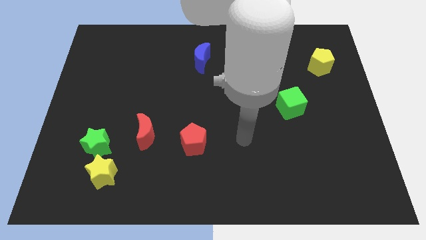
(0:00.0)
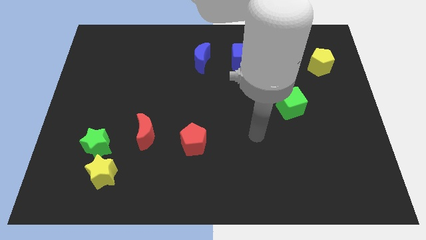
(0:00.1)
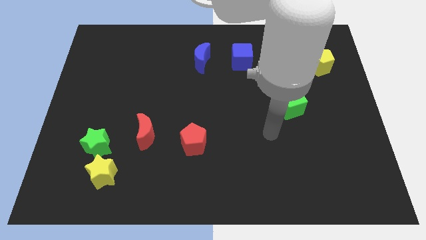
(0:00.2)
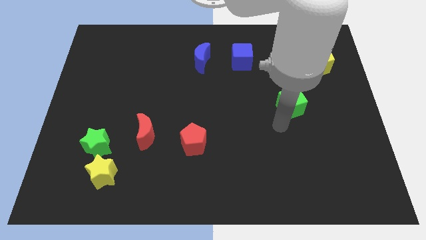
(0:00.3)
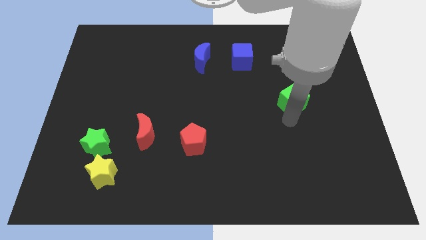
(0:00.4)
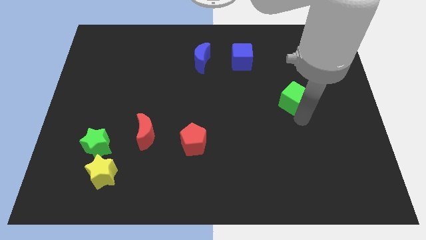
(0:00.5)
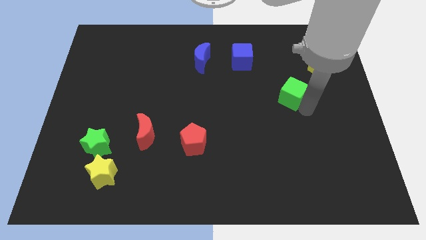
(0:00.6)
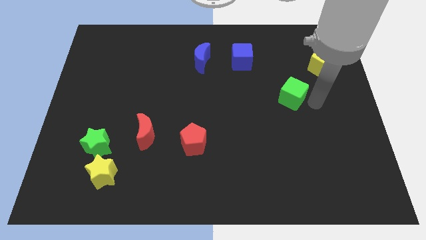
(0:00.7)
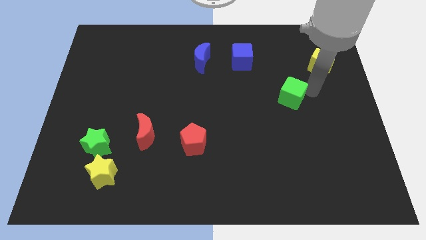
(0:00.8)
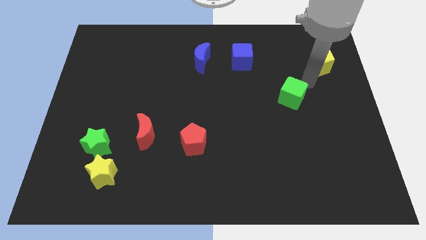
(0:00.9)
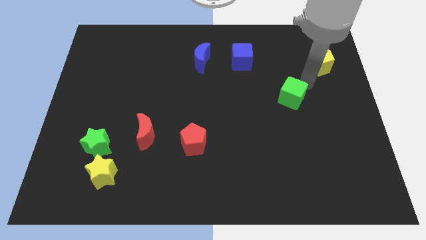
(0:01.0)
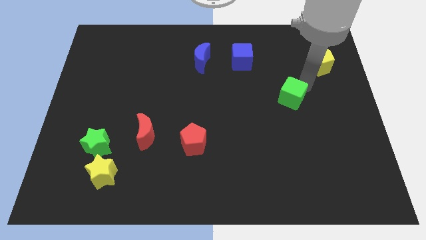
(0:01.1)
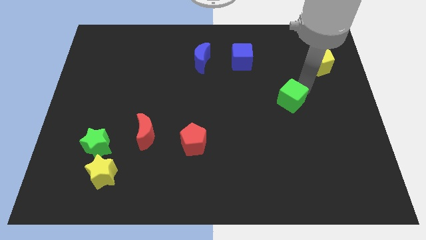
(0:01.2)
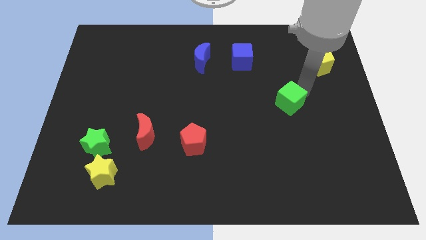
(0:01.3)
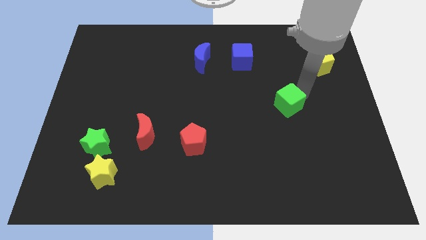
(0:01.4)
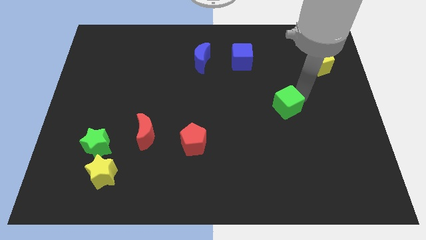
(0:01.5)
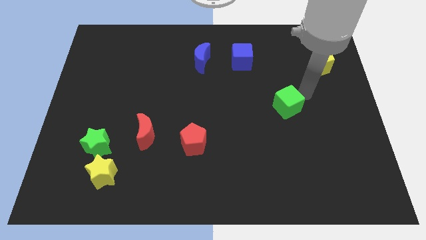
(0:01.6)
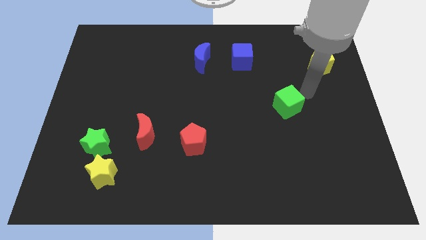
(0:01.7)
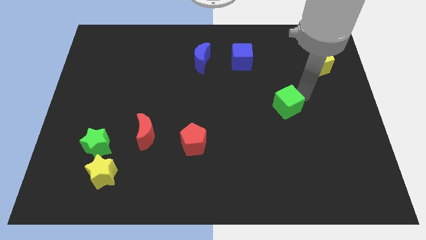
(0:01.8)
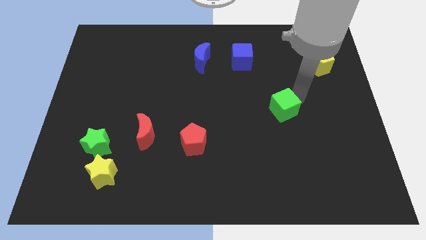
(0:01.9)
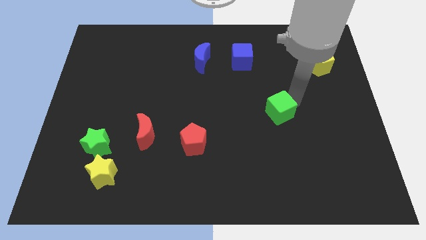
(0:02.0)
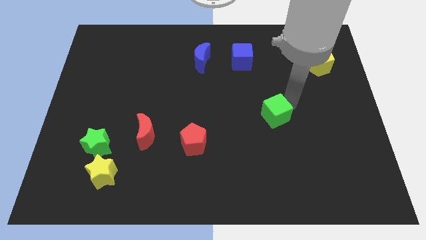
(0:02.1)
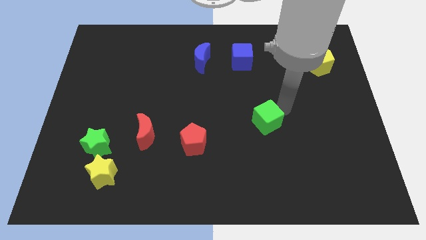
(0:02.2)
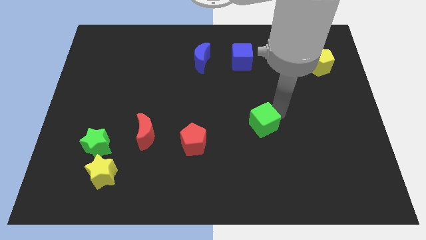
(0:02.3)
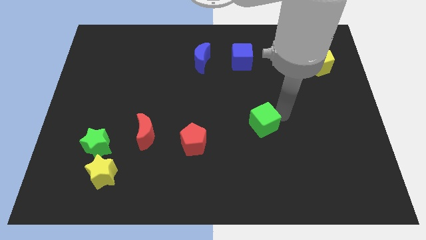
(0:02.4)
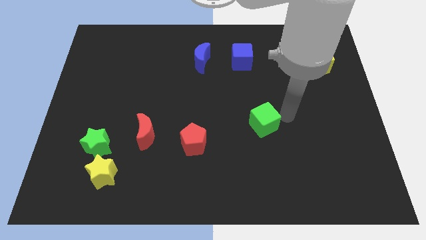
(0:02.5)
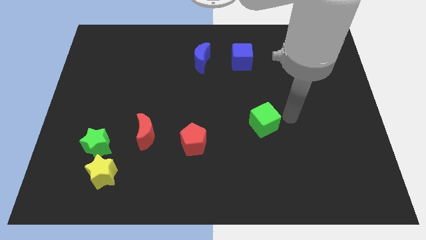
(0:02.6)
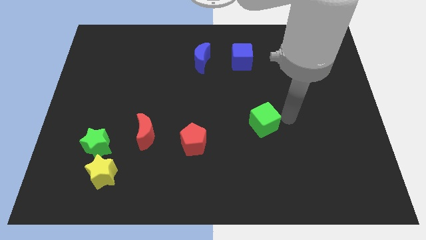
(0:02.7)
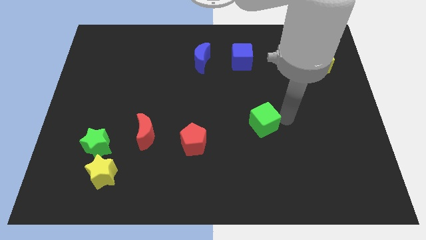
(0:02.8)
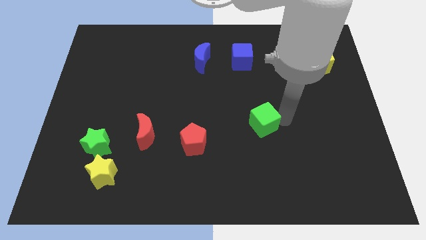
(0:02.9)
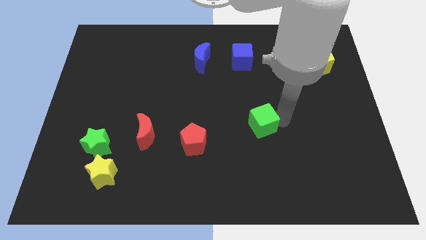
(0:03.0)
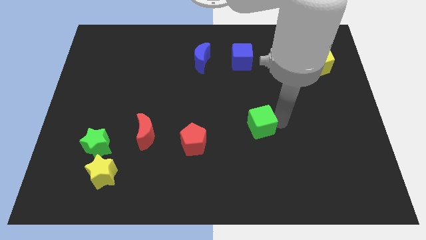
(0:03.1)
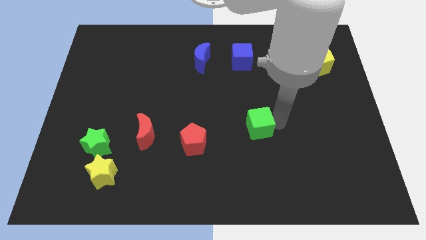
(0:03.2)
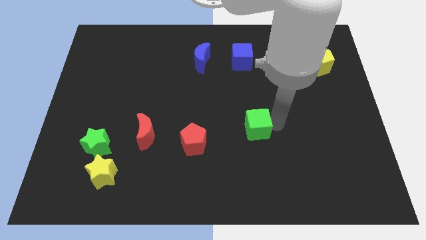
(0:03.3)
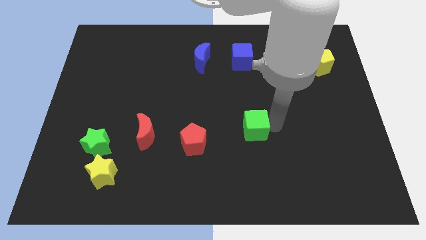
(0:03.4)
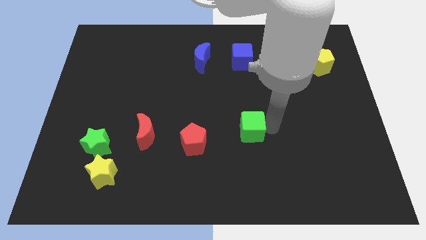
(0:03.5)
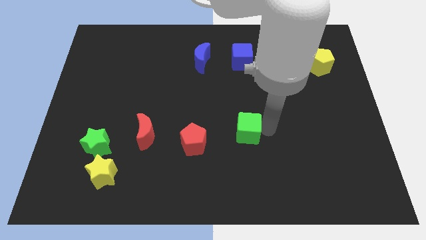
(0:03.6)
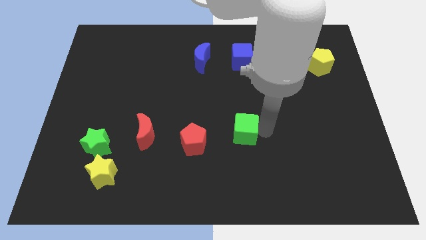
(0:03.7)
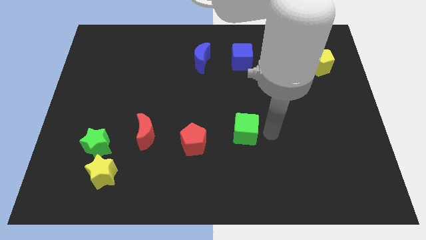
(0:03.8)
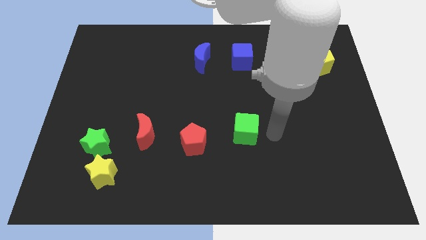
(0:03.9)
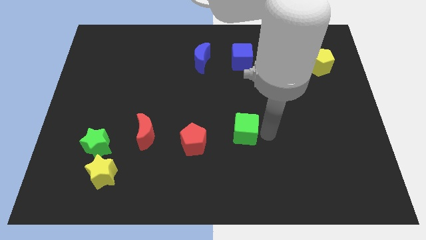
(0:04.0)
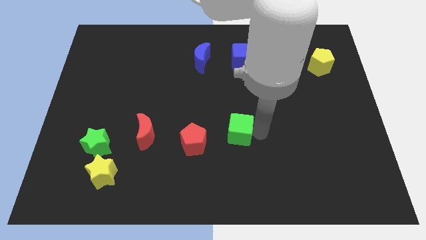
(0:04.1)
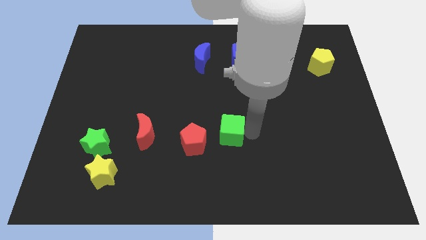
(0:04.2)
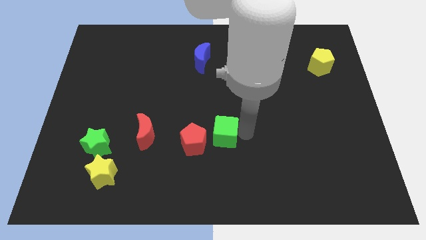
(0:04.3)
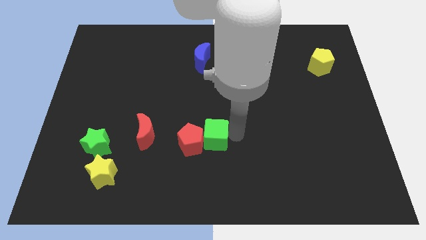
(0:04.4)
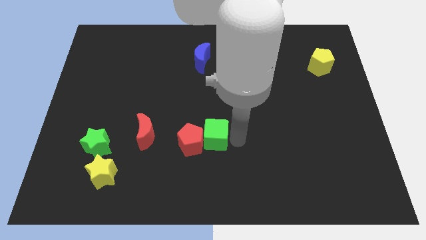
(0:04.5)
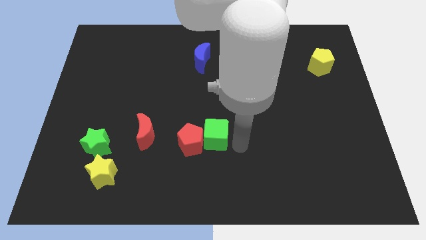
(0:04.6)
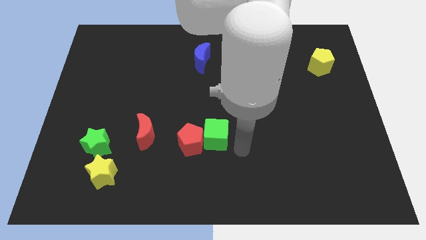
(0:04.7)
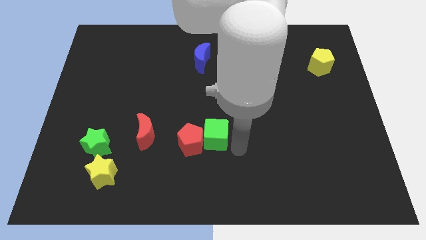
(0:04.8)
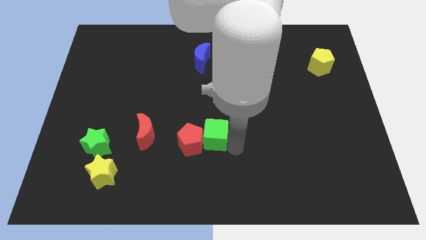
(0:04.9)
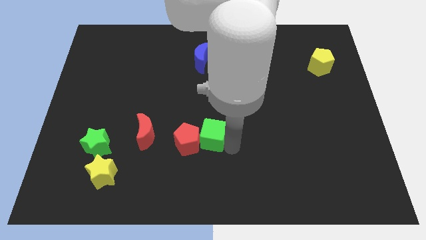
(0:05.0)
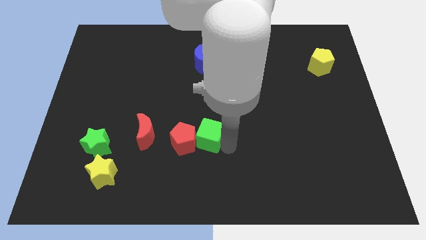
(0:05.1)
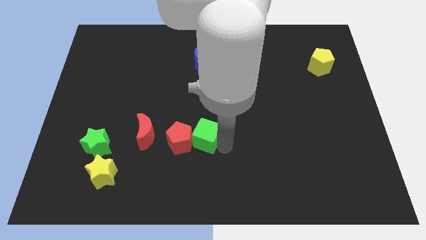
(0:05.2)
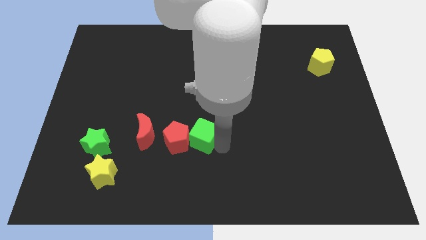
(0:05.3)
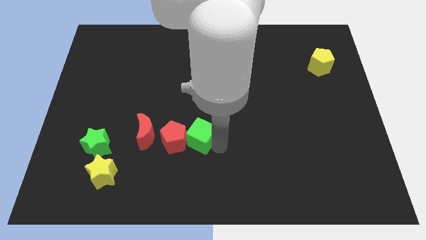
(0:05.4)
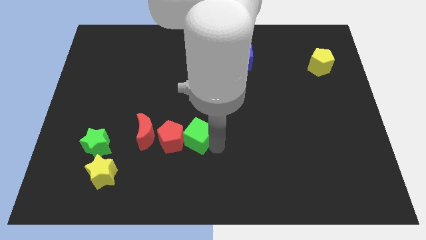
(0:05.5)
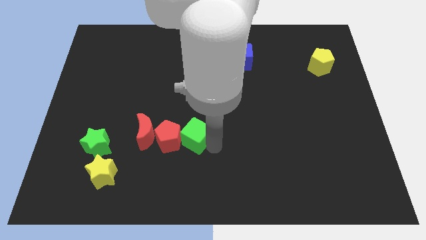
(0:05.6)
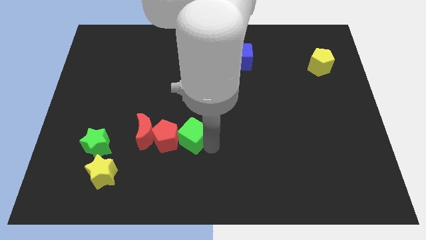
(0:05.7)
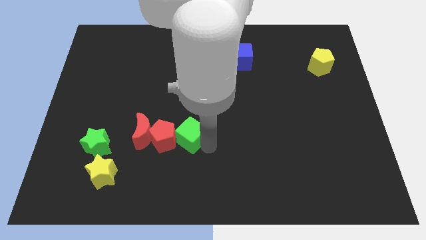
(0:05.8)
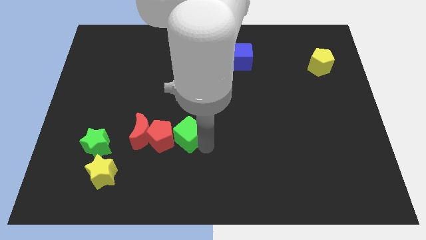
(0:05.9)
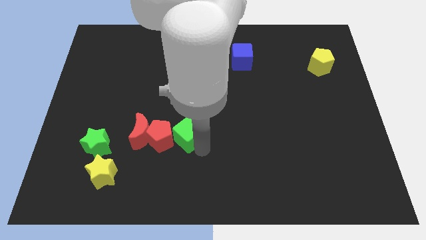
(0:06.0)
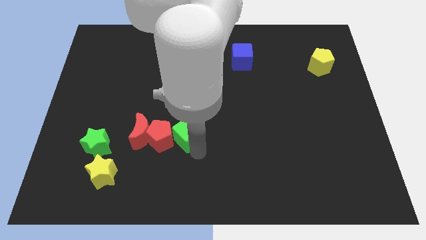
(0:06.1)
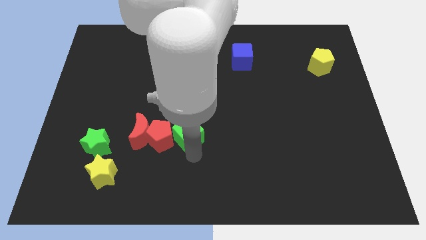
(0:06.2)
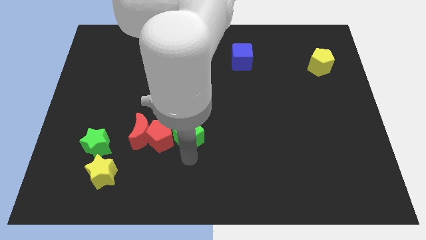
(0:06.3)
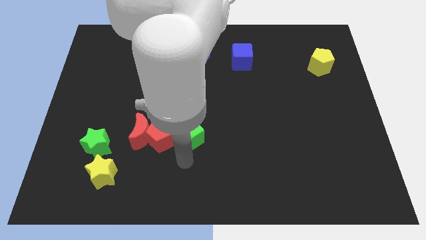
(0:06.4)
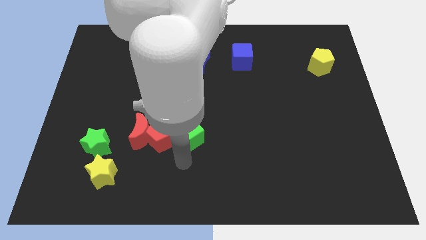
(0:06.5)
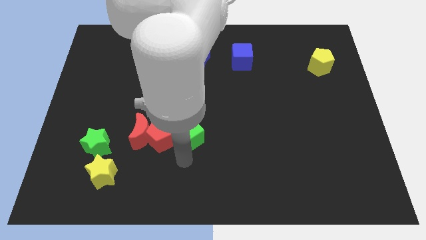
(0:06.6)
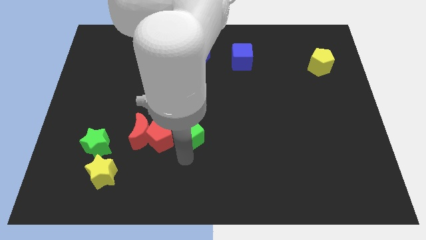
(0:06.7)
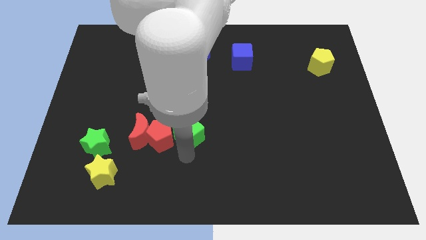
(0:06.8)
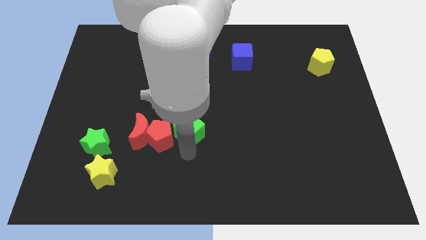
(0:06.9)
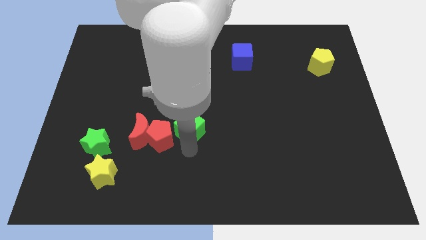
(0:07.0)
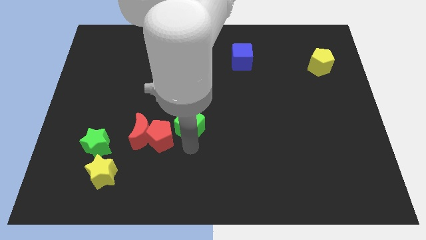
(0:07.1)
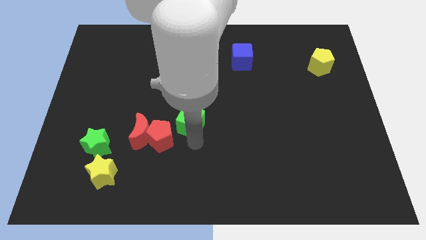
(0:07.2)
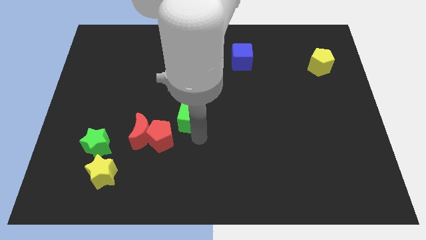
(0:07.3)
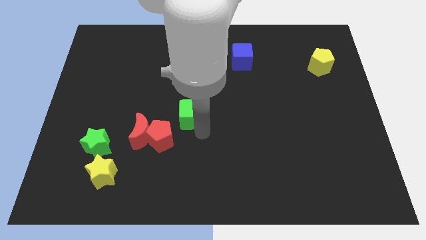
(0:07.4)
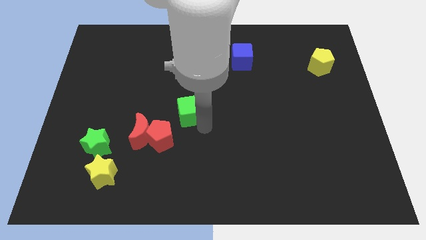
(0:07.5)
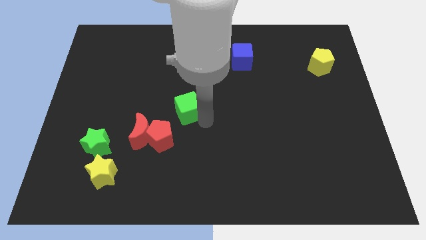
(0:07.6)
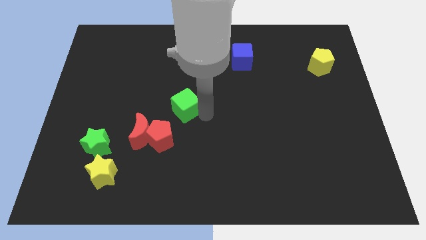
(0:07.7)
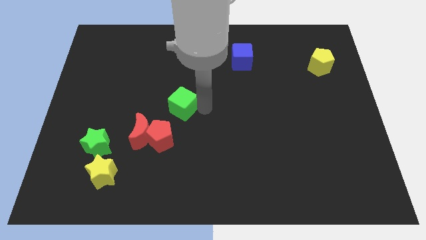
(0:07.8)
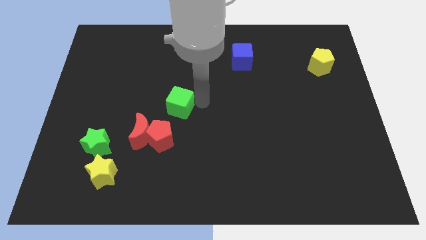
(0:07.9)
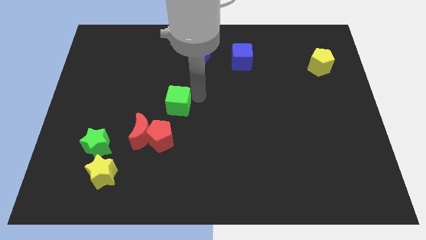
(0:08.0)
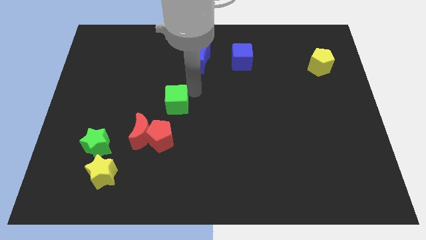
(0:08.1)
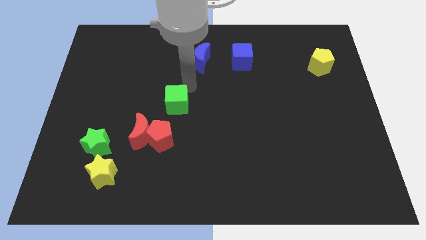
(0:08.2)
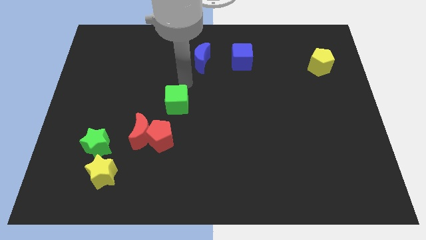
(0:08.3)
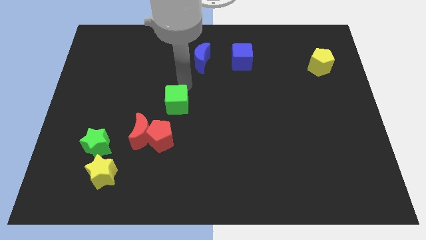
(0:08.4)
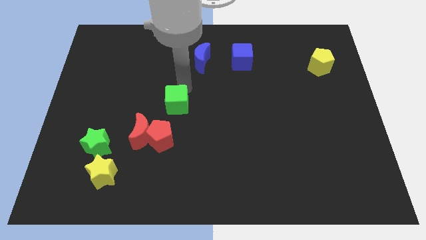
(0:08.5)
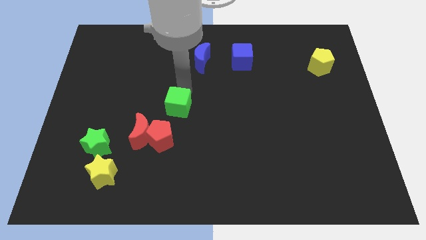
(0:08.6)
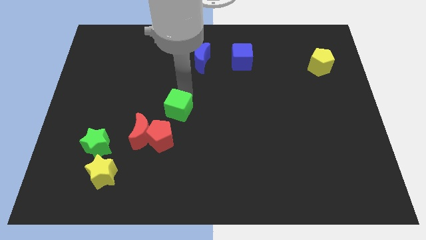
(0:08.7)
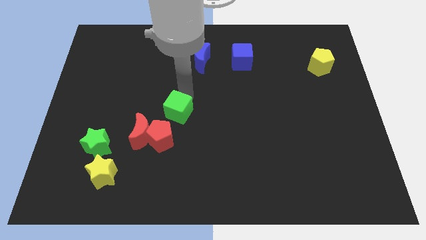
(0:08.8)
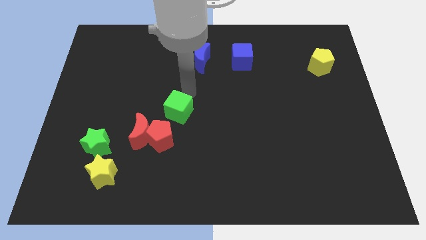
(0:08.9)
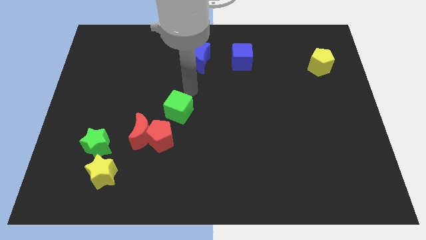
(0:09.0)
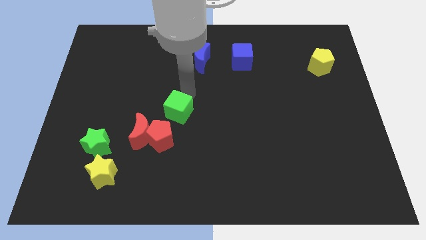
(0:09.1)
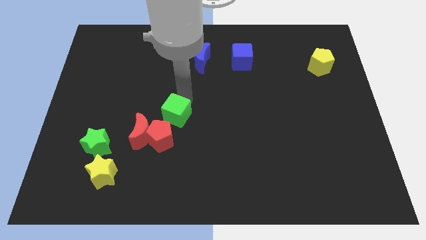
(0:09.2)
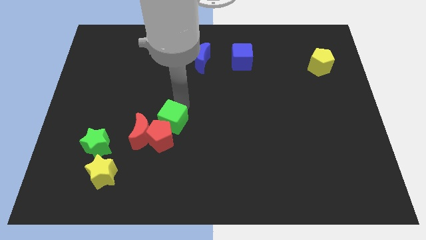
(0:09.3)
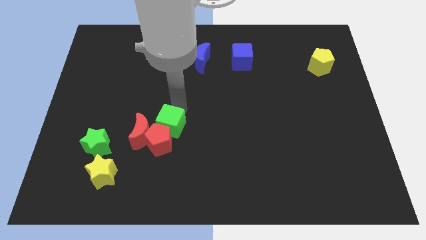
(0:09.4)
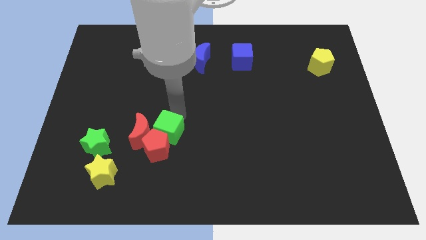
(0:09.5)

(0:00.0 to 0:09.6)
put the green cube towards the red moon
